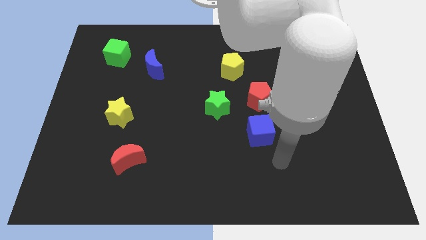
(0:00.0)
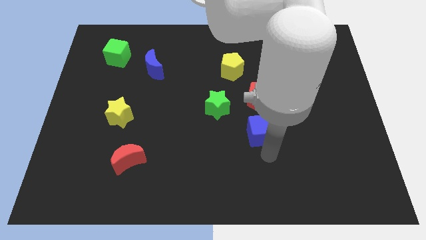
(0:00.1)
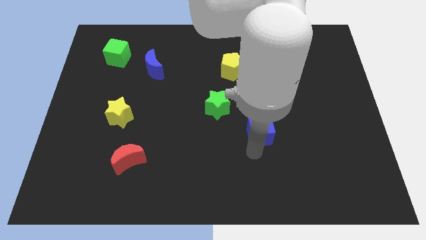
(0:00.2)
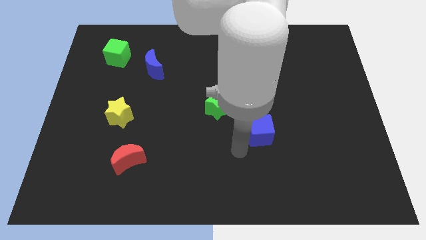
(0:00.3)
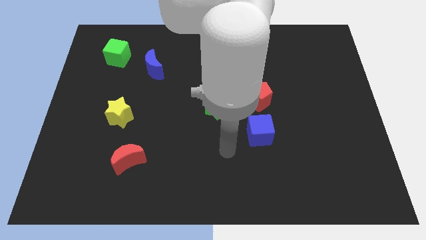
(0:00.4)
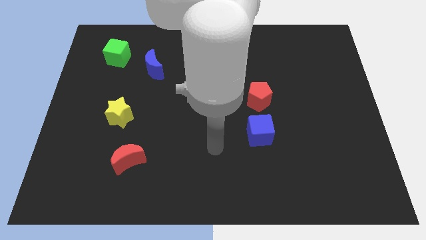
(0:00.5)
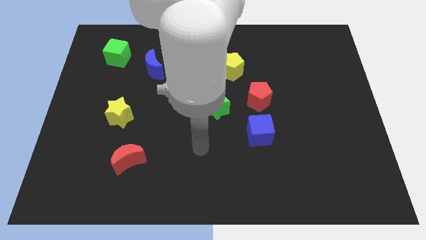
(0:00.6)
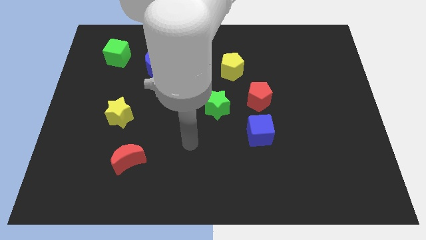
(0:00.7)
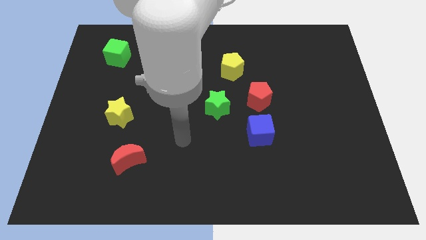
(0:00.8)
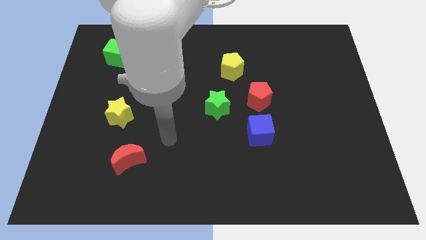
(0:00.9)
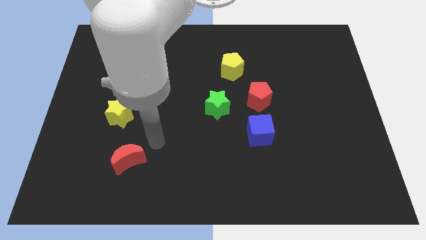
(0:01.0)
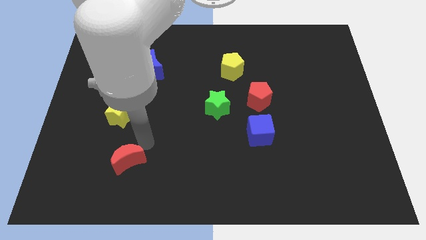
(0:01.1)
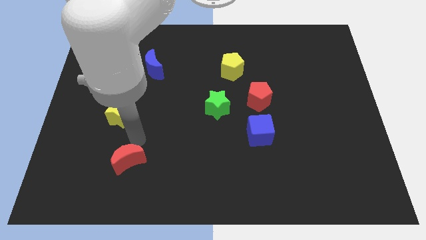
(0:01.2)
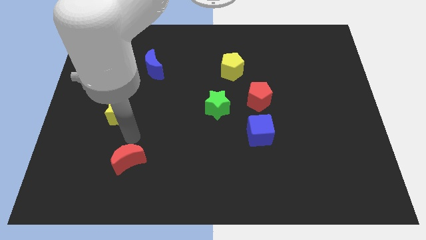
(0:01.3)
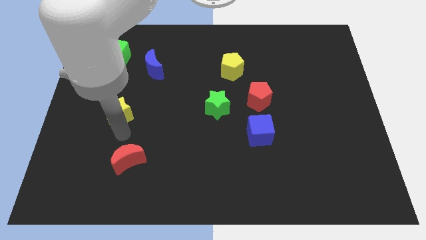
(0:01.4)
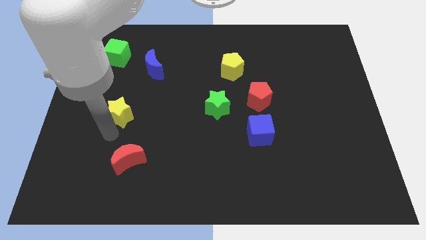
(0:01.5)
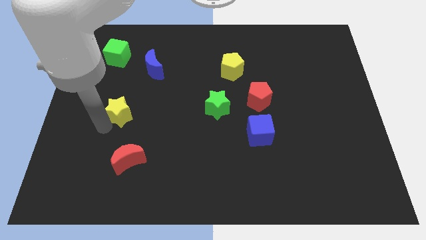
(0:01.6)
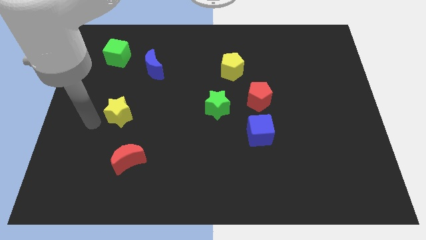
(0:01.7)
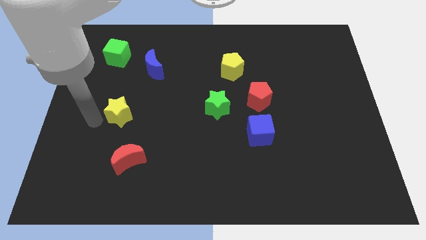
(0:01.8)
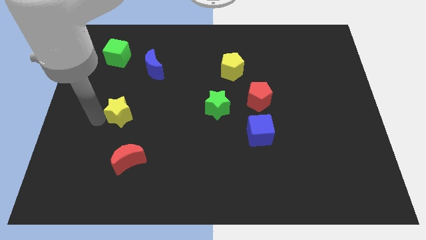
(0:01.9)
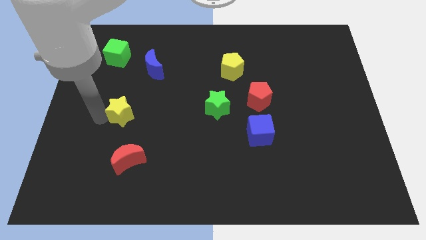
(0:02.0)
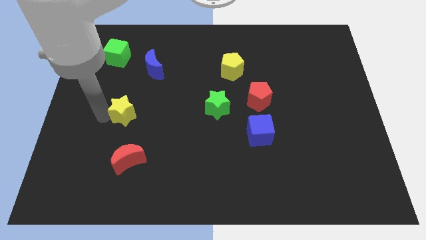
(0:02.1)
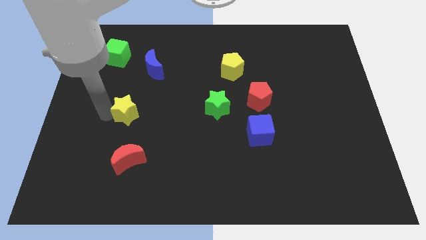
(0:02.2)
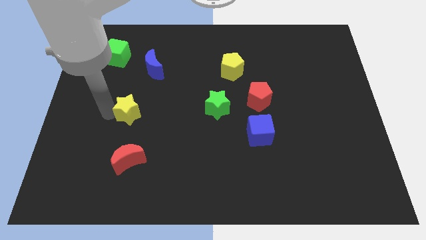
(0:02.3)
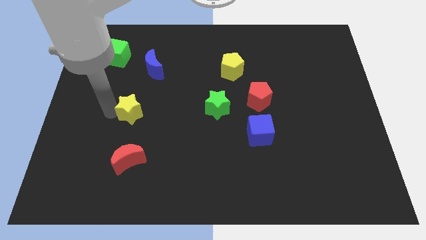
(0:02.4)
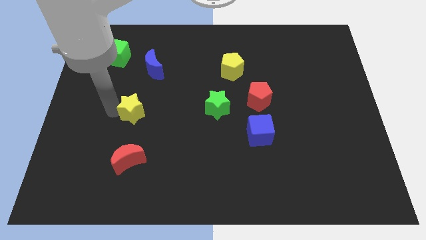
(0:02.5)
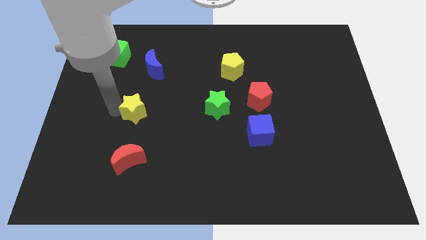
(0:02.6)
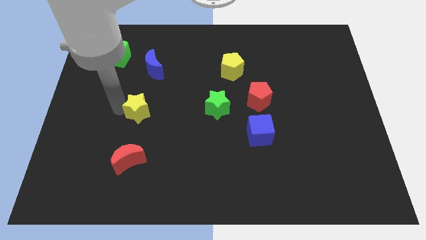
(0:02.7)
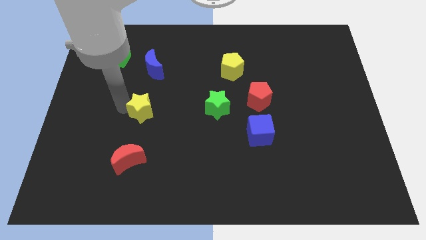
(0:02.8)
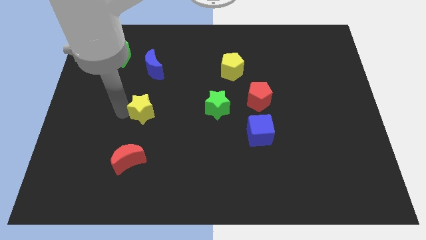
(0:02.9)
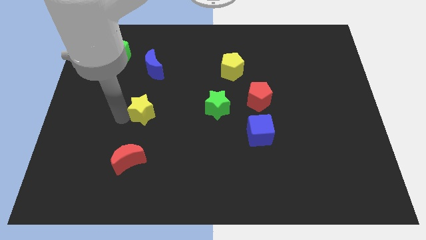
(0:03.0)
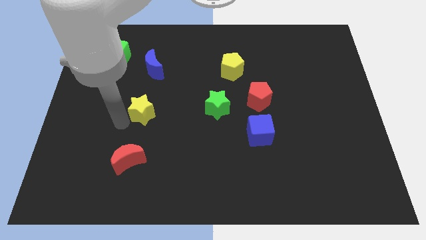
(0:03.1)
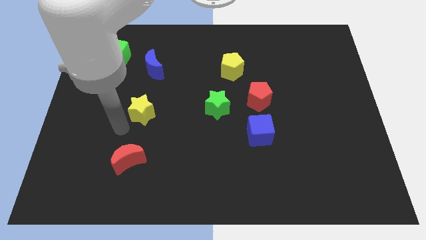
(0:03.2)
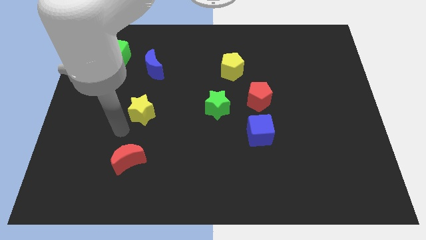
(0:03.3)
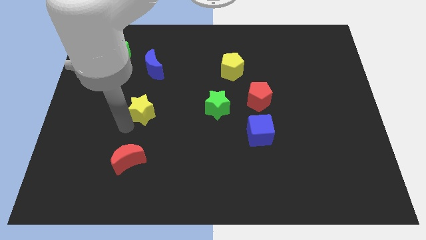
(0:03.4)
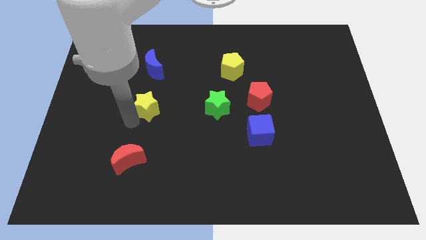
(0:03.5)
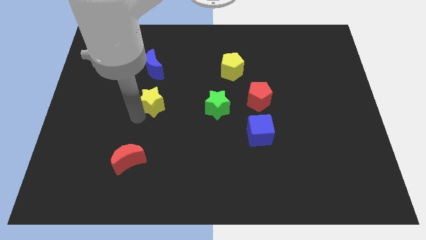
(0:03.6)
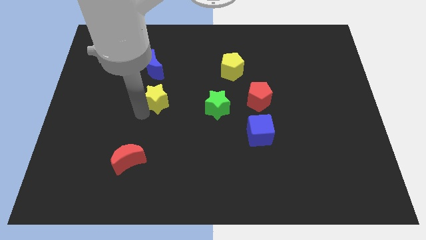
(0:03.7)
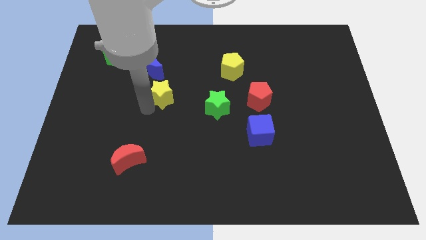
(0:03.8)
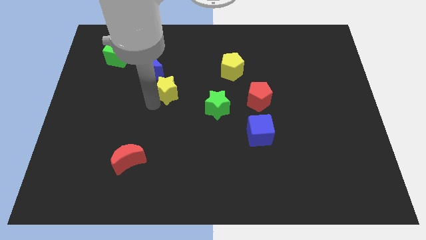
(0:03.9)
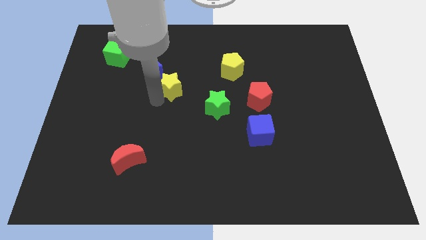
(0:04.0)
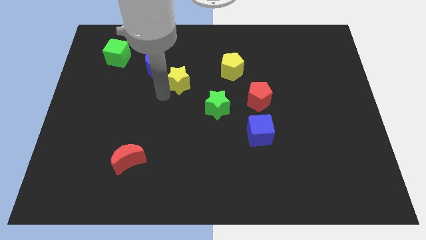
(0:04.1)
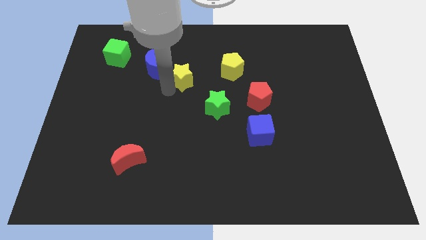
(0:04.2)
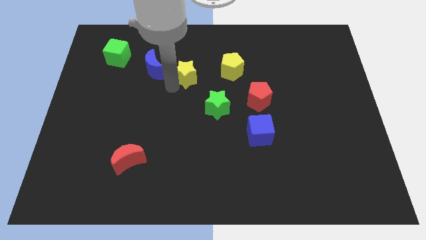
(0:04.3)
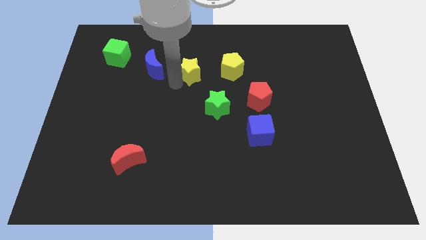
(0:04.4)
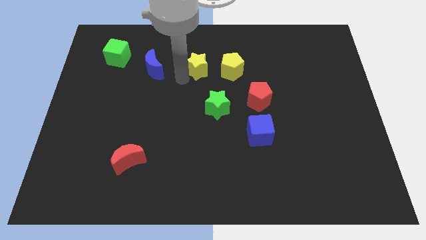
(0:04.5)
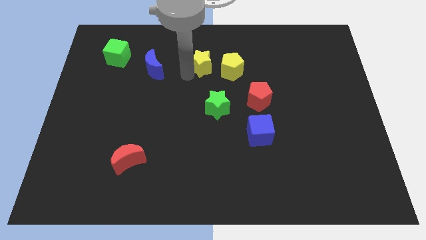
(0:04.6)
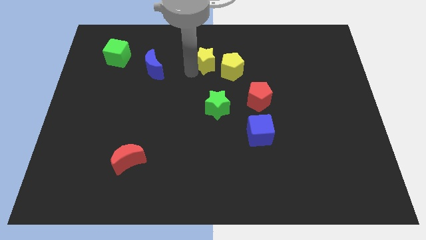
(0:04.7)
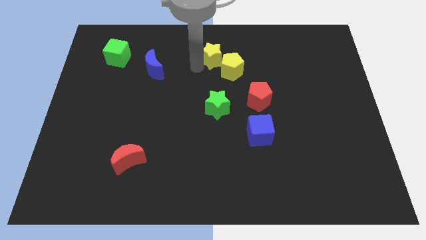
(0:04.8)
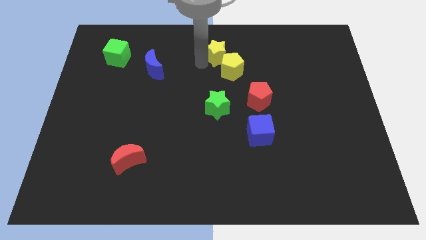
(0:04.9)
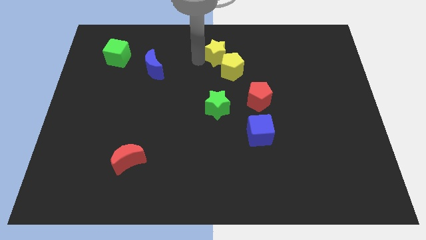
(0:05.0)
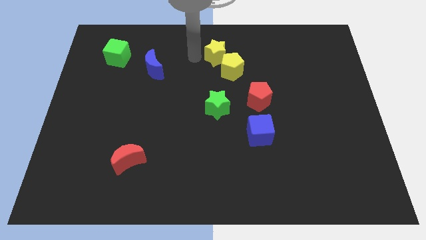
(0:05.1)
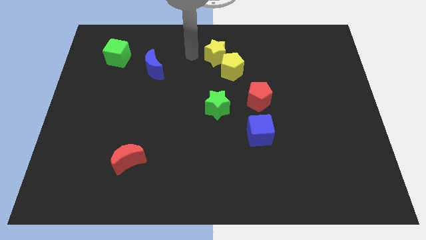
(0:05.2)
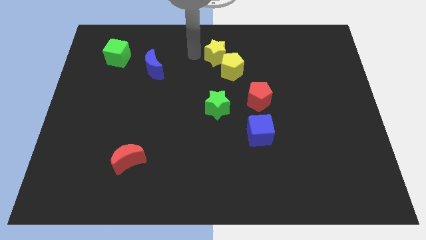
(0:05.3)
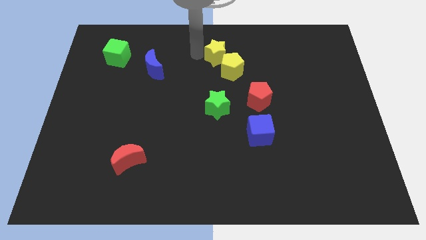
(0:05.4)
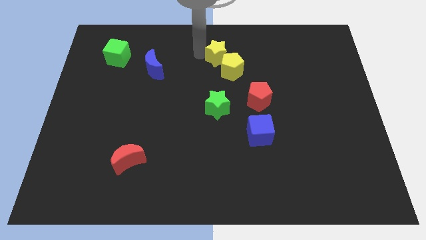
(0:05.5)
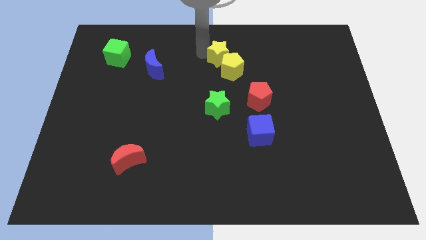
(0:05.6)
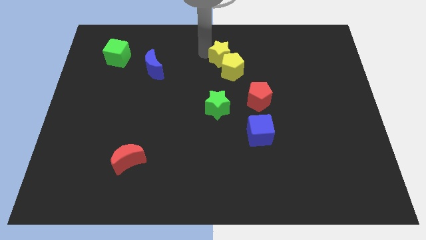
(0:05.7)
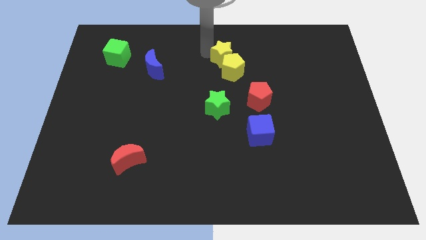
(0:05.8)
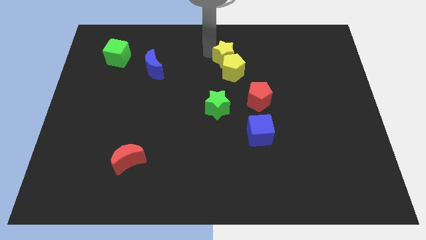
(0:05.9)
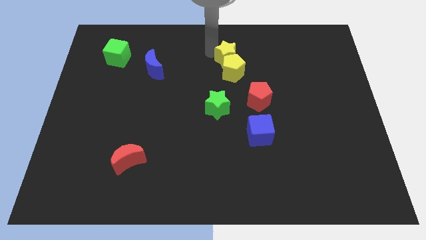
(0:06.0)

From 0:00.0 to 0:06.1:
move the yellow star to the top right side of the yellow pentagon
